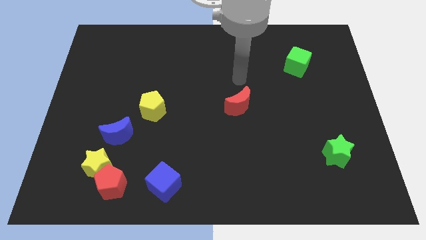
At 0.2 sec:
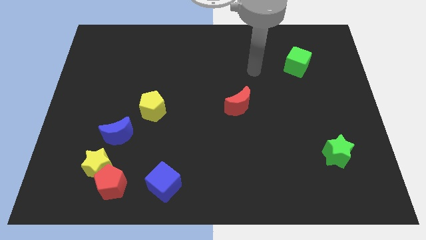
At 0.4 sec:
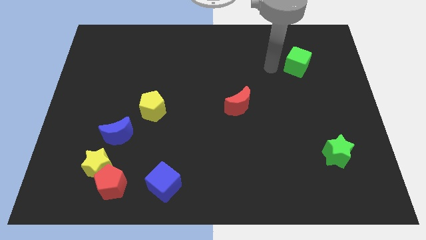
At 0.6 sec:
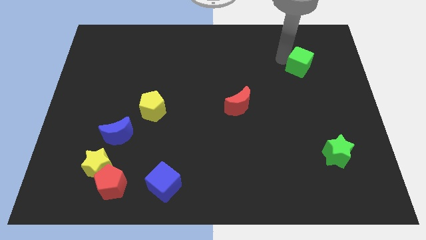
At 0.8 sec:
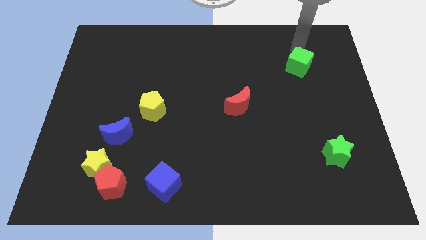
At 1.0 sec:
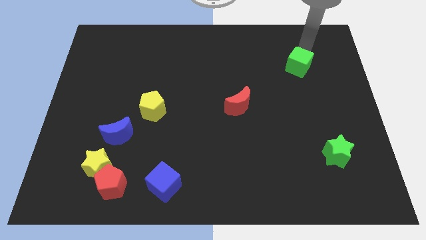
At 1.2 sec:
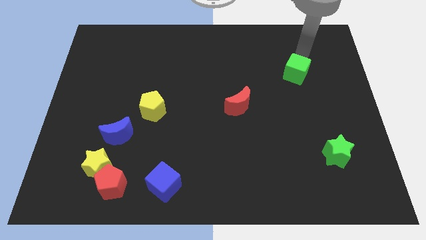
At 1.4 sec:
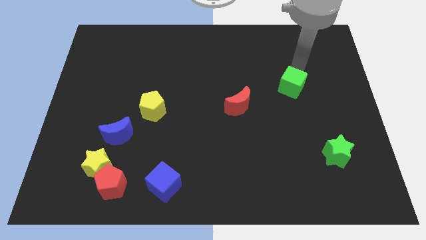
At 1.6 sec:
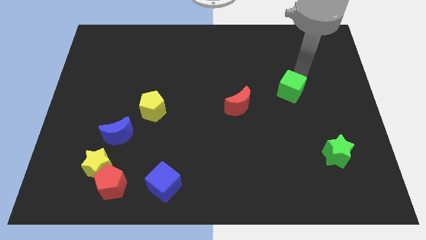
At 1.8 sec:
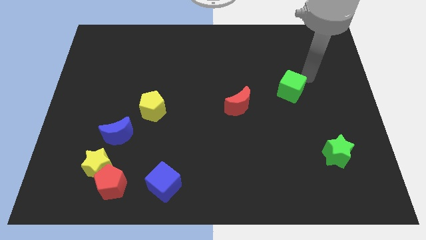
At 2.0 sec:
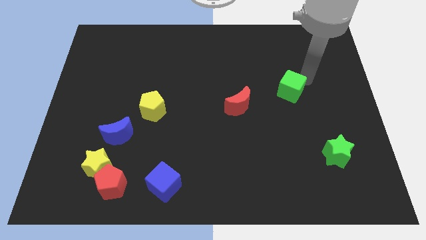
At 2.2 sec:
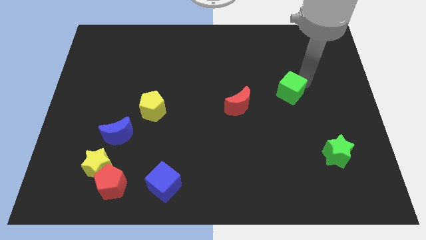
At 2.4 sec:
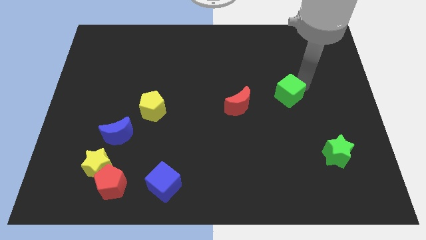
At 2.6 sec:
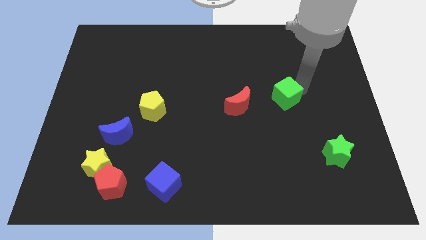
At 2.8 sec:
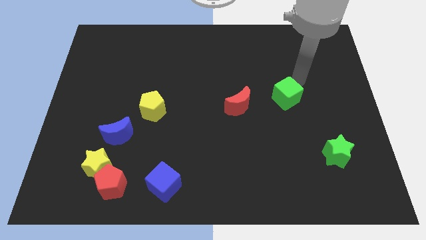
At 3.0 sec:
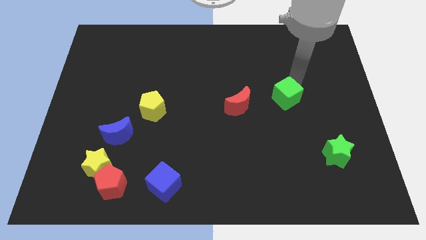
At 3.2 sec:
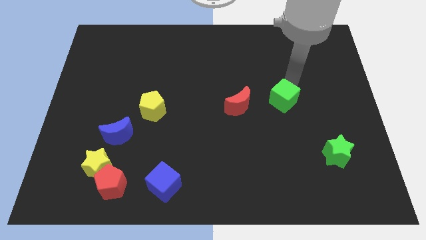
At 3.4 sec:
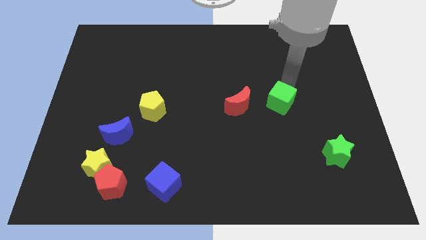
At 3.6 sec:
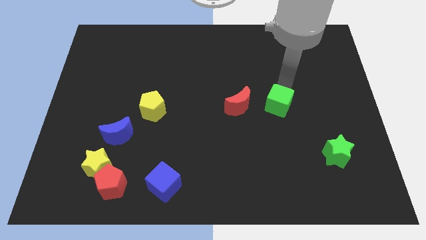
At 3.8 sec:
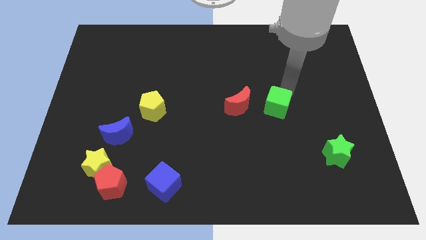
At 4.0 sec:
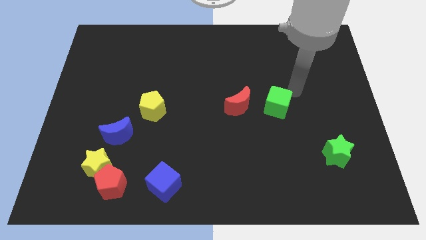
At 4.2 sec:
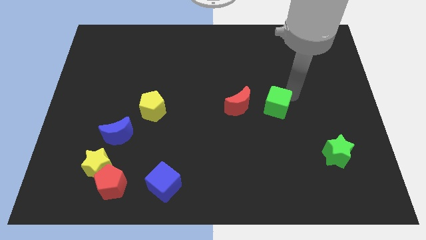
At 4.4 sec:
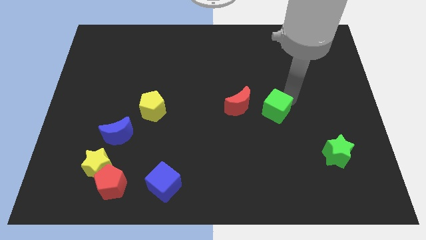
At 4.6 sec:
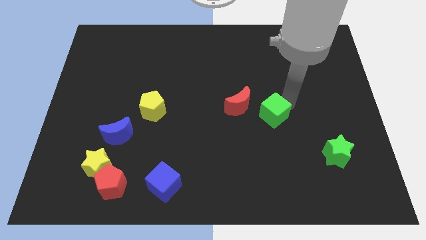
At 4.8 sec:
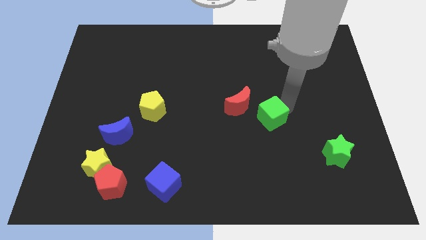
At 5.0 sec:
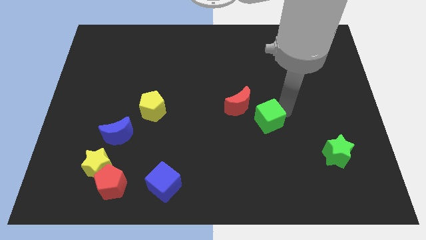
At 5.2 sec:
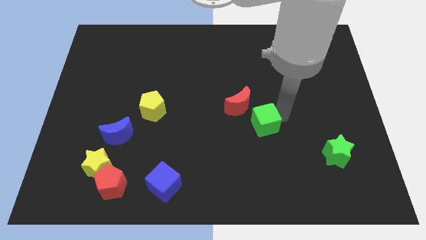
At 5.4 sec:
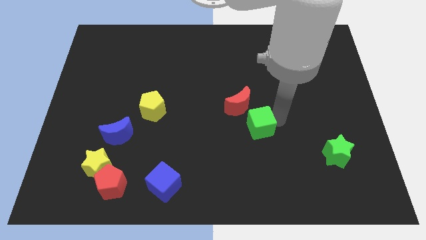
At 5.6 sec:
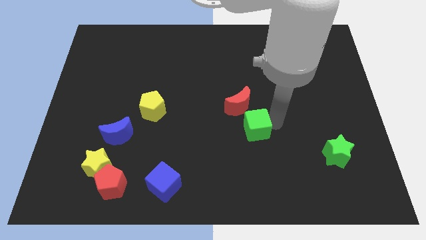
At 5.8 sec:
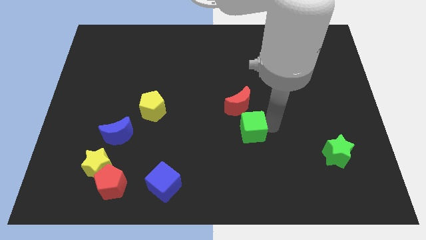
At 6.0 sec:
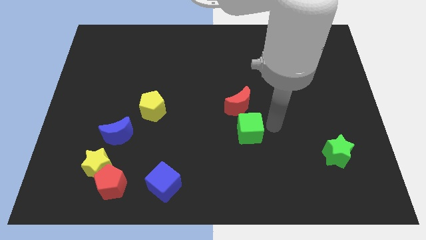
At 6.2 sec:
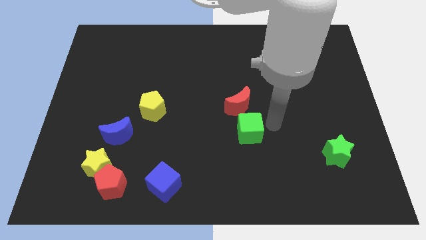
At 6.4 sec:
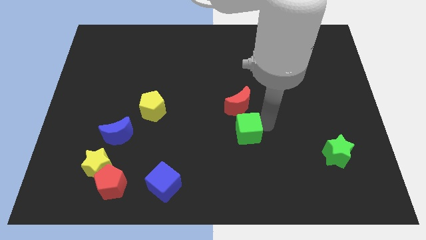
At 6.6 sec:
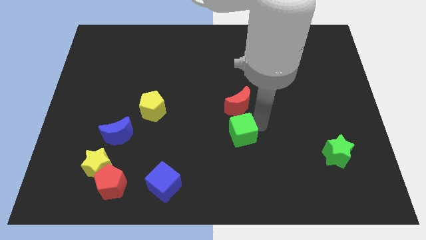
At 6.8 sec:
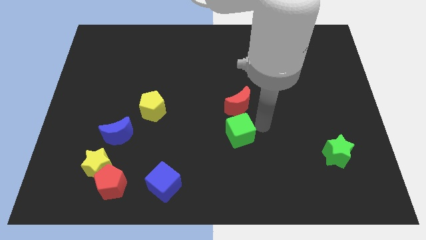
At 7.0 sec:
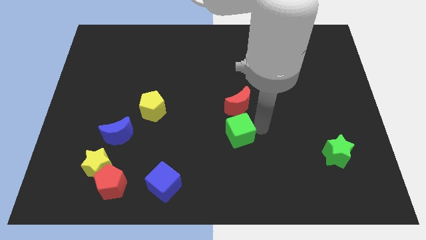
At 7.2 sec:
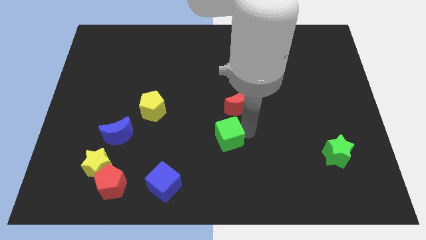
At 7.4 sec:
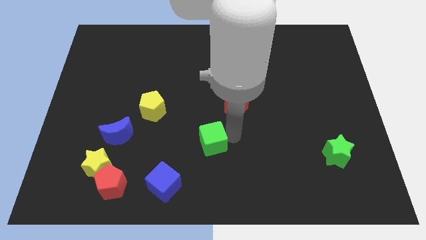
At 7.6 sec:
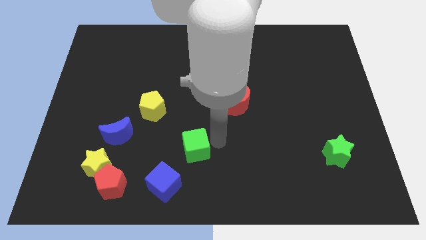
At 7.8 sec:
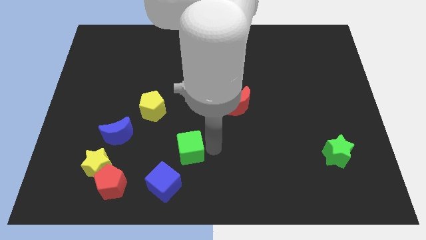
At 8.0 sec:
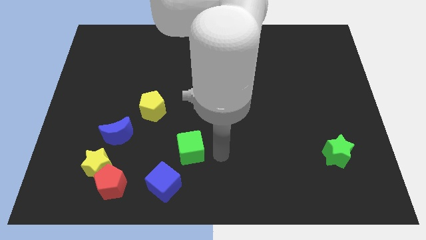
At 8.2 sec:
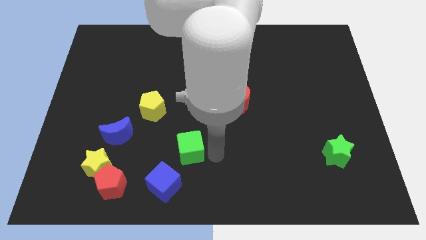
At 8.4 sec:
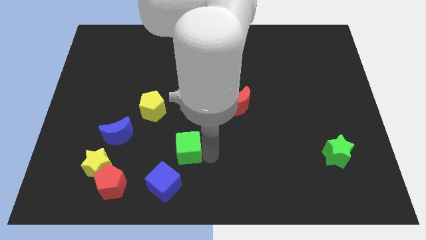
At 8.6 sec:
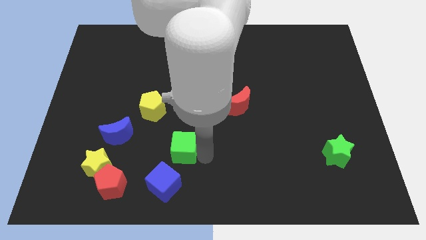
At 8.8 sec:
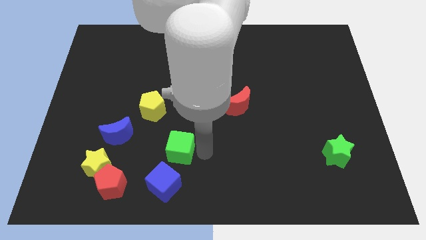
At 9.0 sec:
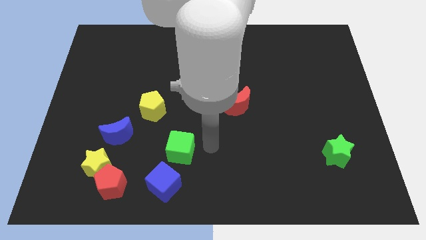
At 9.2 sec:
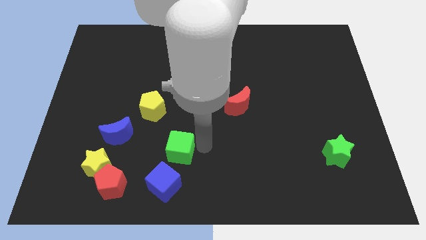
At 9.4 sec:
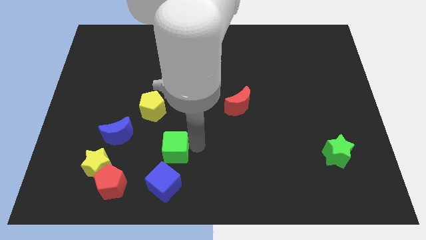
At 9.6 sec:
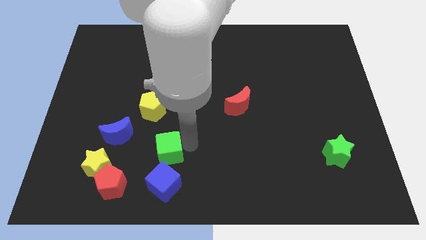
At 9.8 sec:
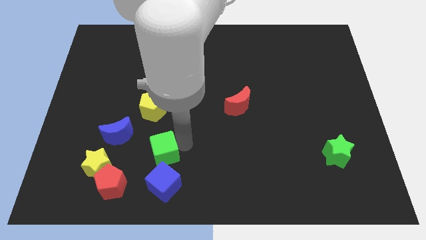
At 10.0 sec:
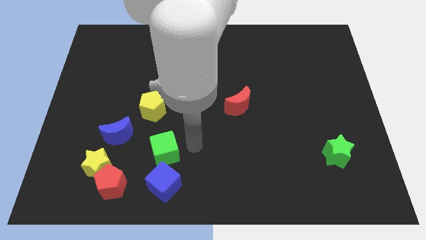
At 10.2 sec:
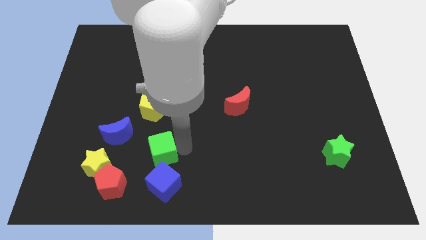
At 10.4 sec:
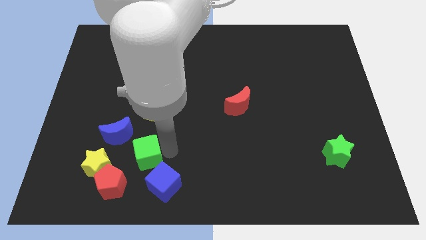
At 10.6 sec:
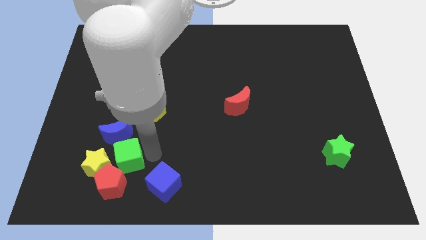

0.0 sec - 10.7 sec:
put the green cube next to the yellow star

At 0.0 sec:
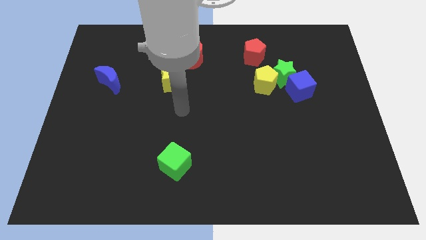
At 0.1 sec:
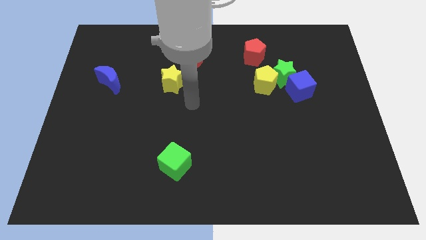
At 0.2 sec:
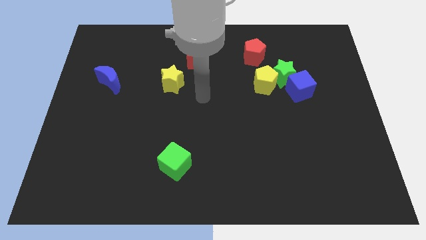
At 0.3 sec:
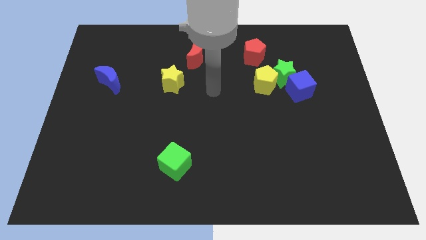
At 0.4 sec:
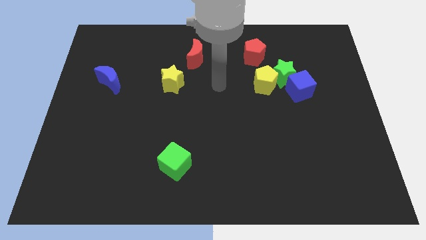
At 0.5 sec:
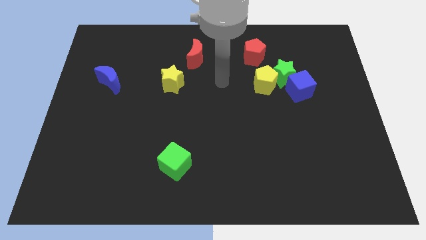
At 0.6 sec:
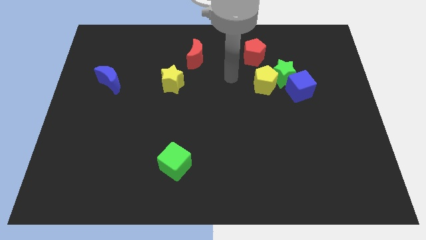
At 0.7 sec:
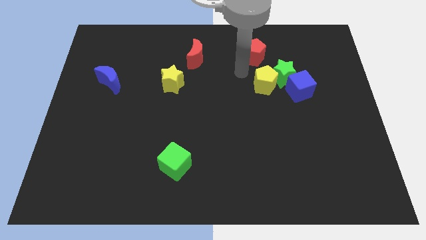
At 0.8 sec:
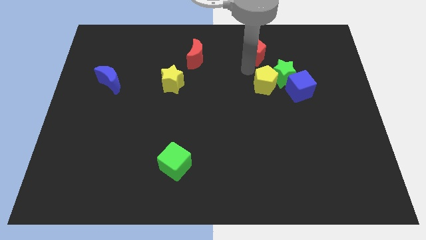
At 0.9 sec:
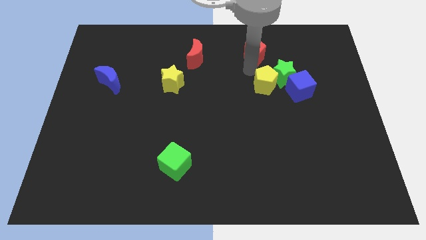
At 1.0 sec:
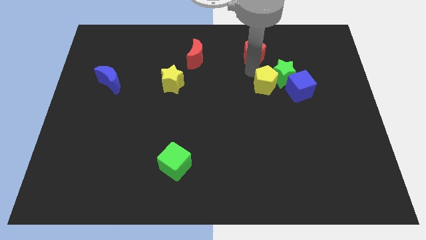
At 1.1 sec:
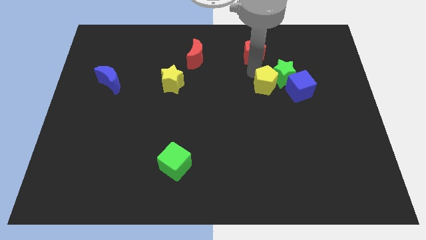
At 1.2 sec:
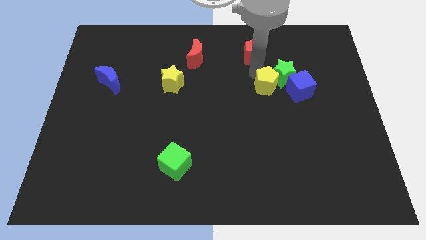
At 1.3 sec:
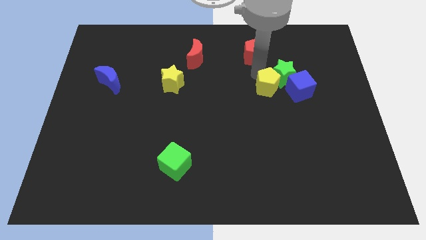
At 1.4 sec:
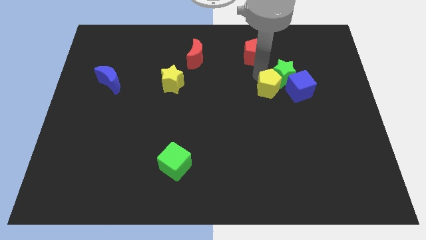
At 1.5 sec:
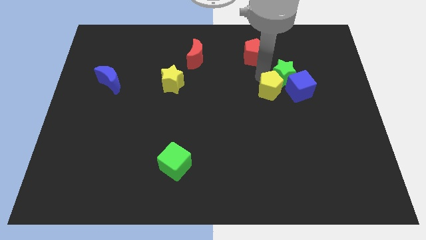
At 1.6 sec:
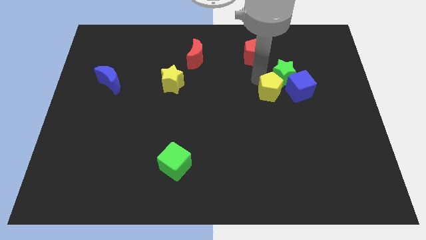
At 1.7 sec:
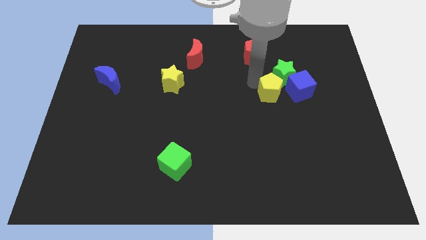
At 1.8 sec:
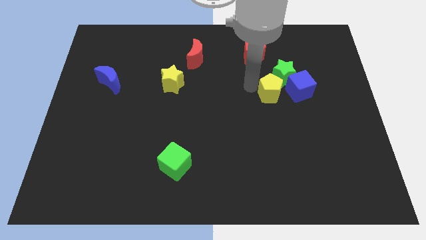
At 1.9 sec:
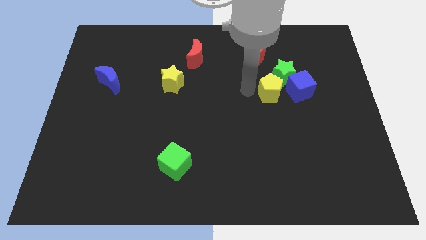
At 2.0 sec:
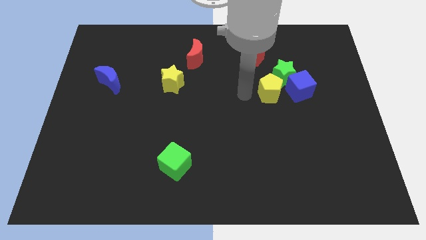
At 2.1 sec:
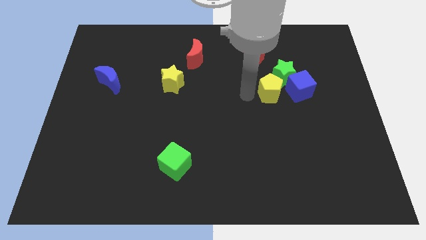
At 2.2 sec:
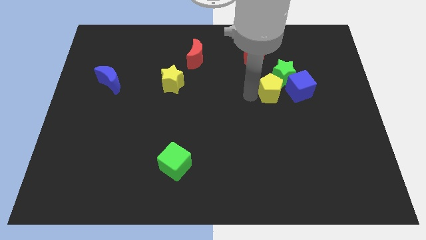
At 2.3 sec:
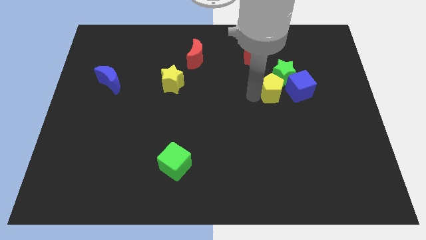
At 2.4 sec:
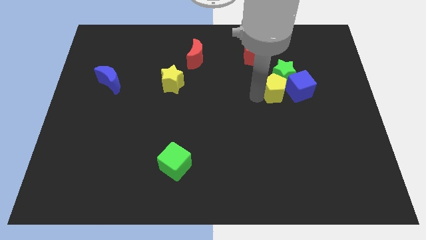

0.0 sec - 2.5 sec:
slide the yellow pentagon close to the blue cube
